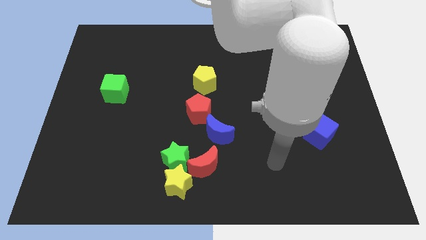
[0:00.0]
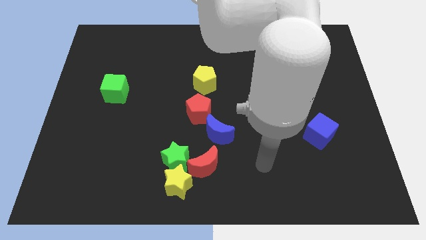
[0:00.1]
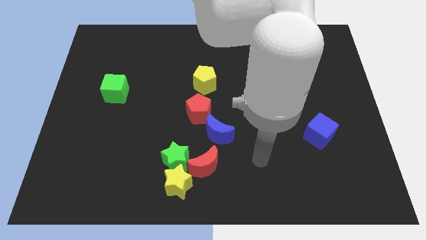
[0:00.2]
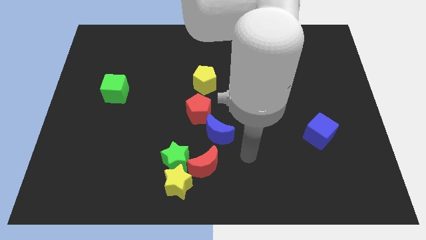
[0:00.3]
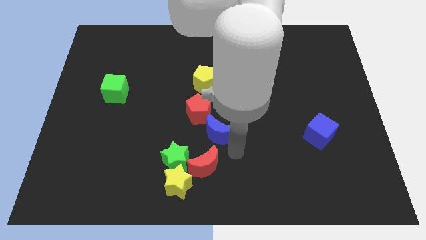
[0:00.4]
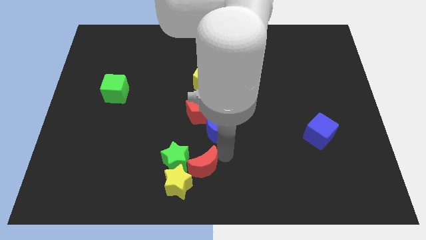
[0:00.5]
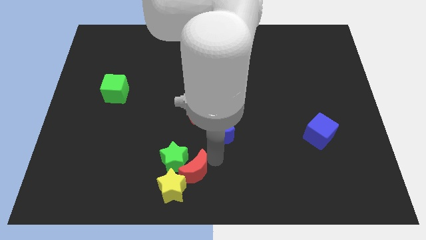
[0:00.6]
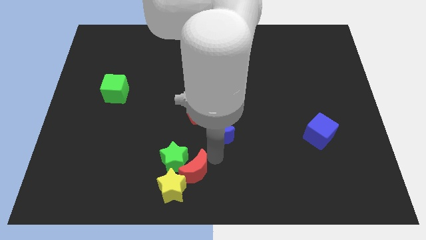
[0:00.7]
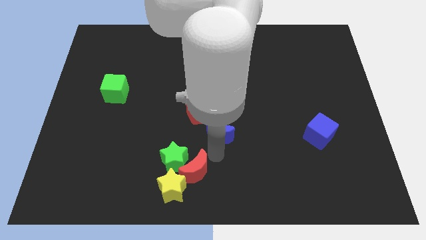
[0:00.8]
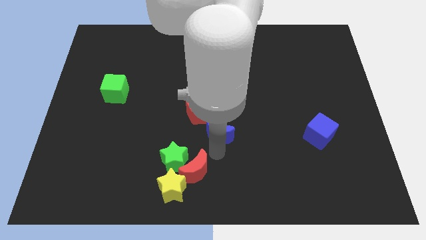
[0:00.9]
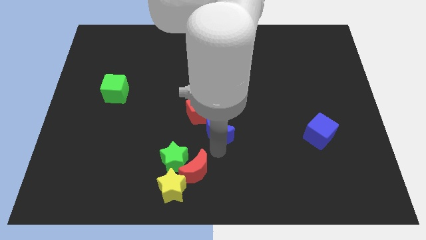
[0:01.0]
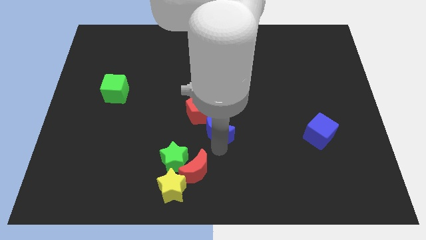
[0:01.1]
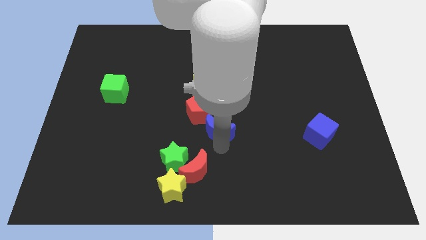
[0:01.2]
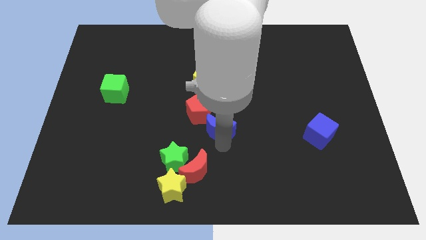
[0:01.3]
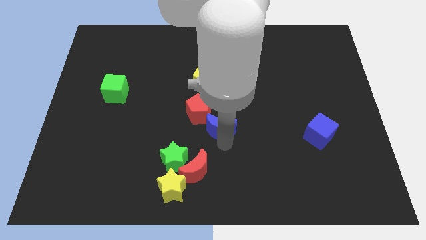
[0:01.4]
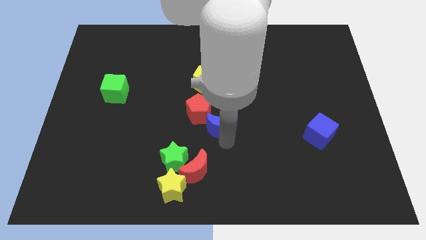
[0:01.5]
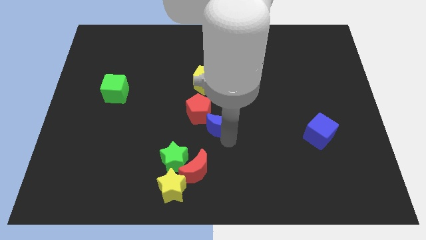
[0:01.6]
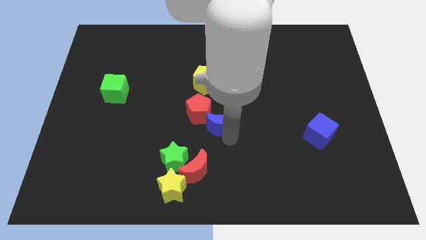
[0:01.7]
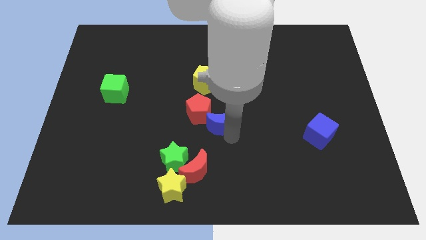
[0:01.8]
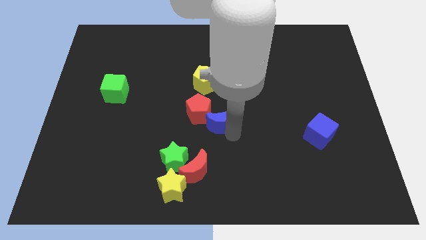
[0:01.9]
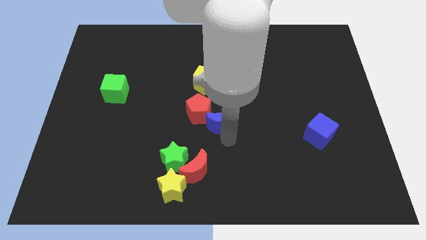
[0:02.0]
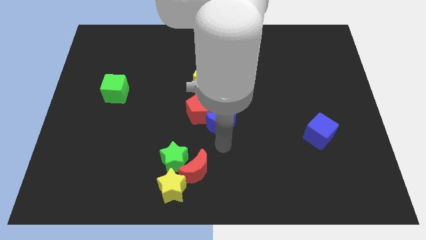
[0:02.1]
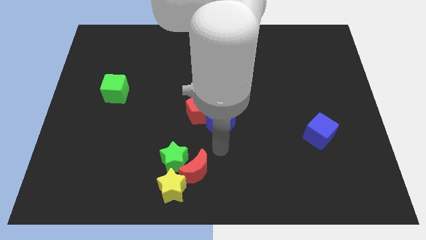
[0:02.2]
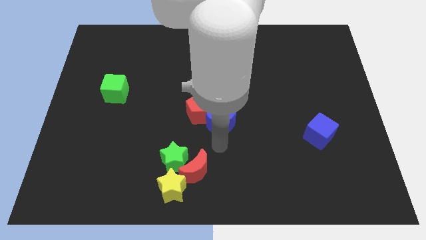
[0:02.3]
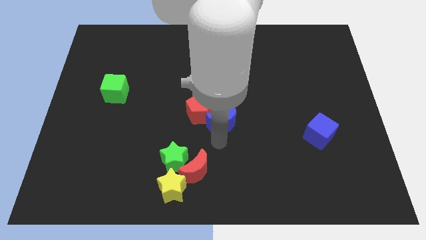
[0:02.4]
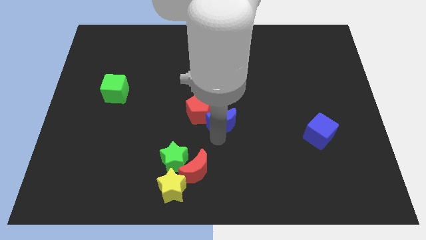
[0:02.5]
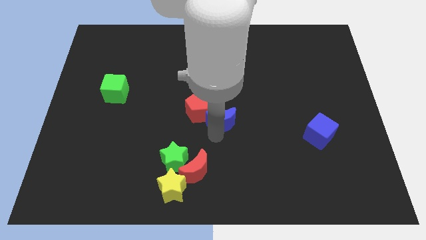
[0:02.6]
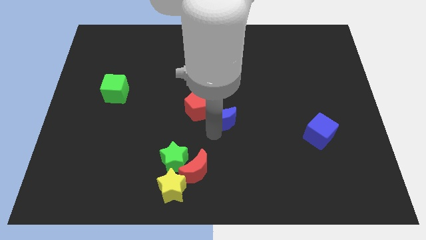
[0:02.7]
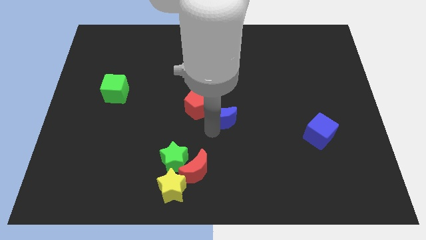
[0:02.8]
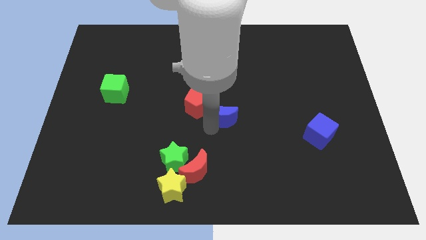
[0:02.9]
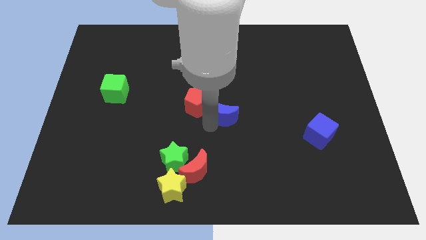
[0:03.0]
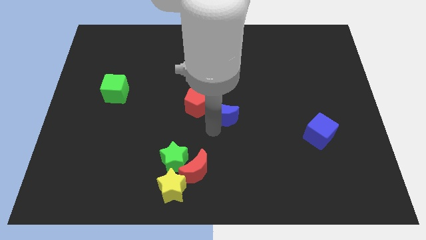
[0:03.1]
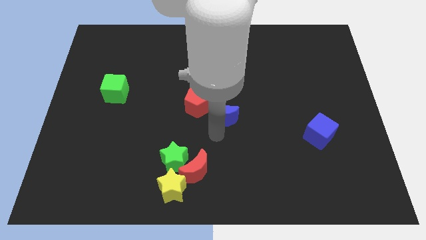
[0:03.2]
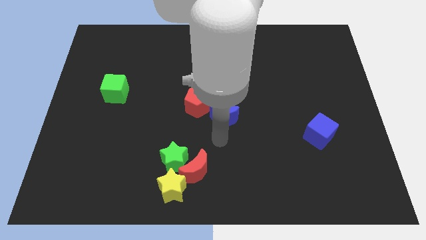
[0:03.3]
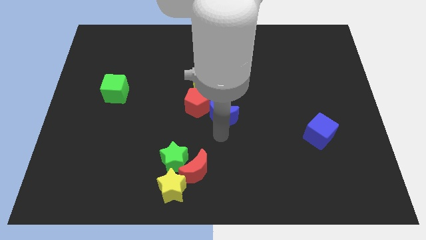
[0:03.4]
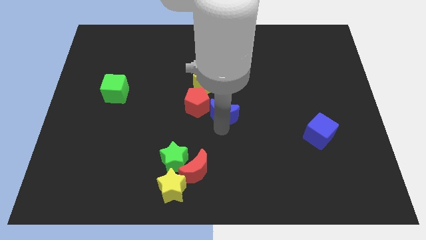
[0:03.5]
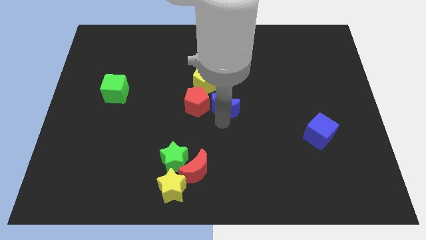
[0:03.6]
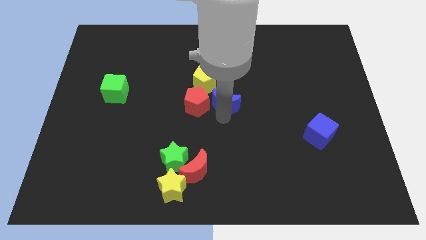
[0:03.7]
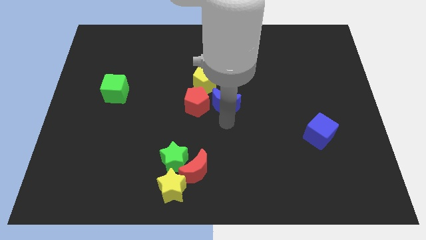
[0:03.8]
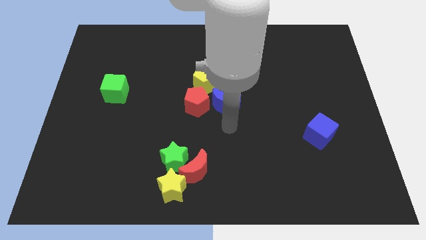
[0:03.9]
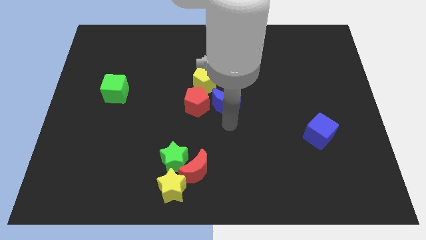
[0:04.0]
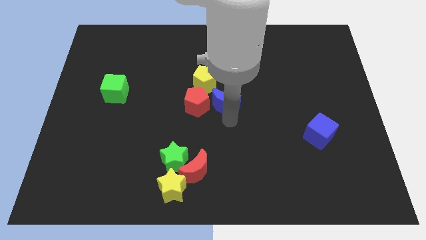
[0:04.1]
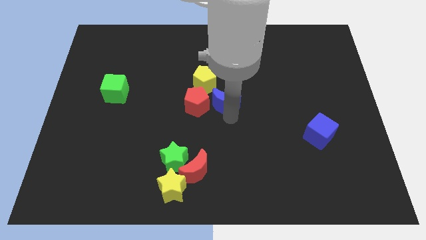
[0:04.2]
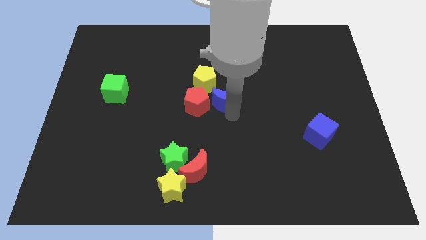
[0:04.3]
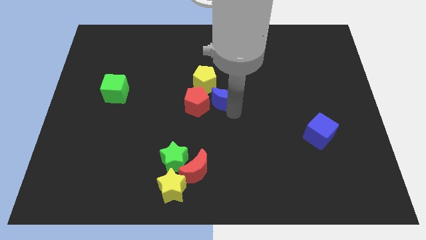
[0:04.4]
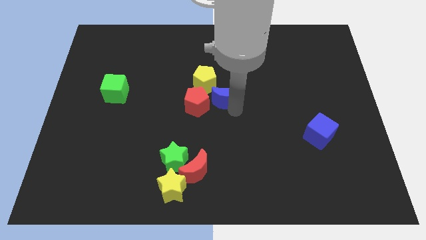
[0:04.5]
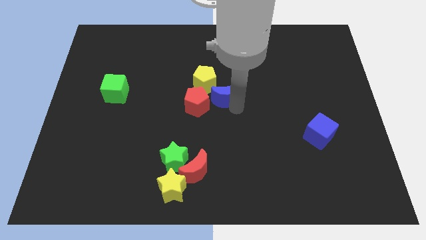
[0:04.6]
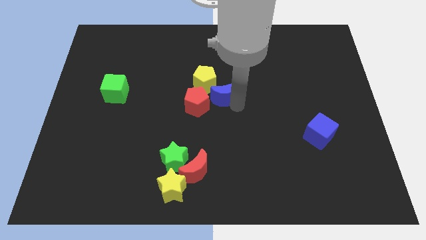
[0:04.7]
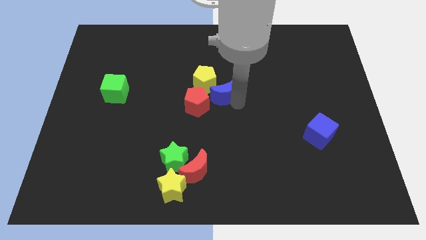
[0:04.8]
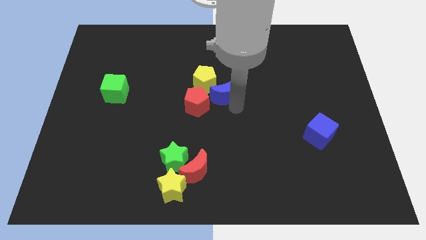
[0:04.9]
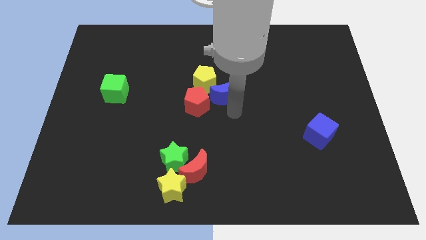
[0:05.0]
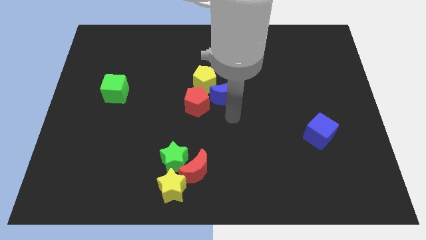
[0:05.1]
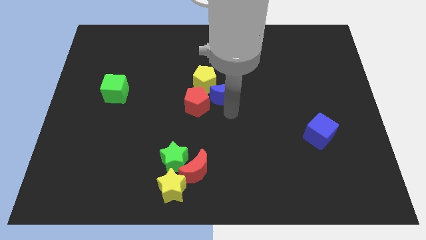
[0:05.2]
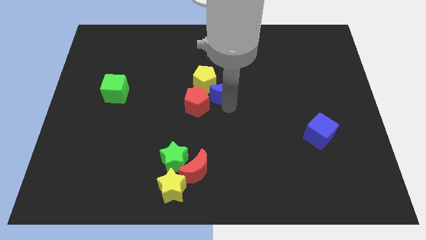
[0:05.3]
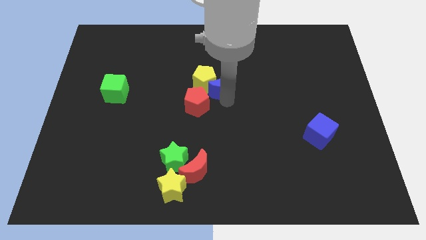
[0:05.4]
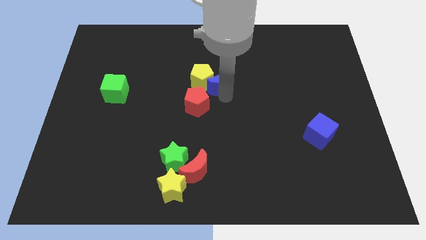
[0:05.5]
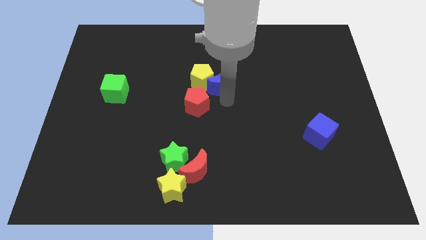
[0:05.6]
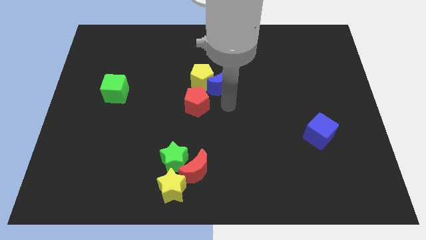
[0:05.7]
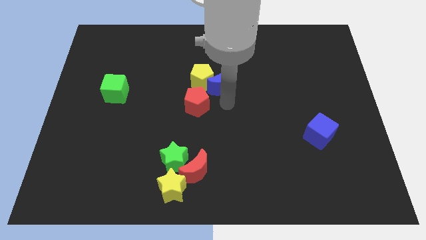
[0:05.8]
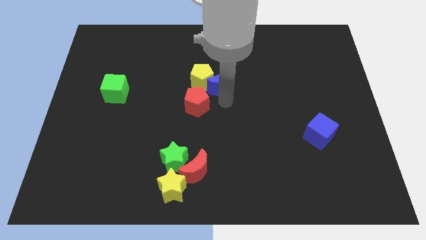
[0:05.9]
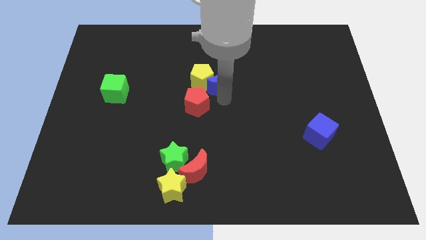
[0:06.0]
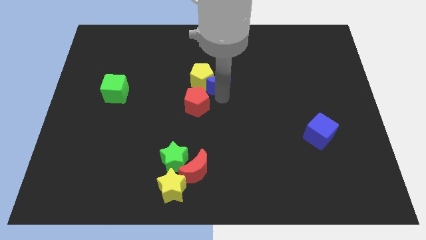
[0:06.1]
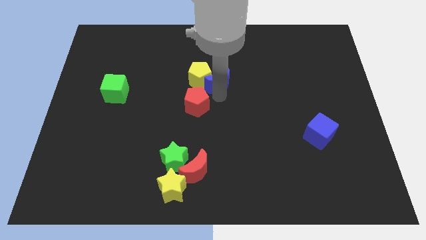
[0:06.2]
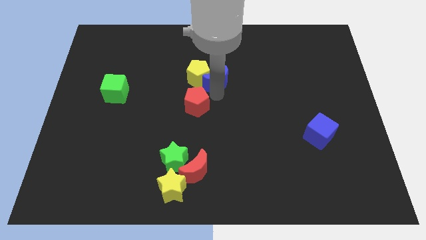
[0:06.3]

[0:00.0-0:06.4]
slide the blue moon to the top of the red pentagon

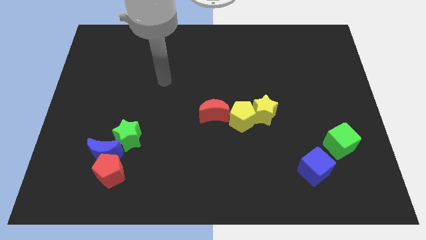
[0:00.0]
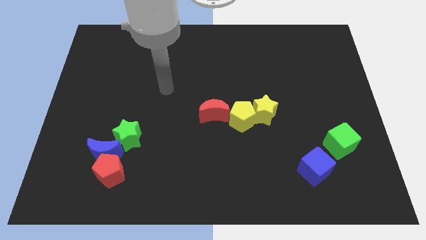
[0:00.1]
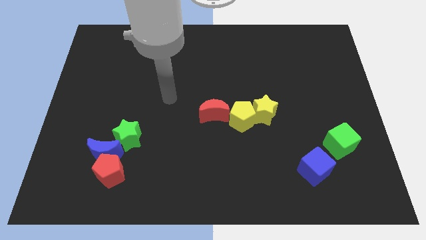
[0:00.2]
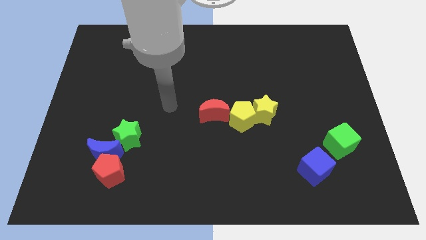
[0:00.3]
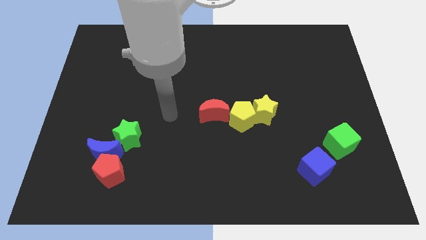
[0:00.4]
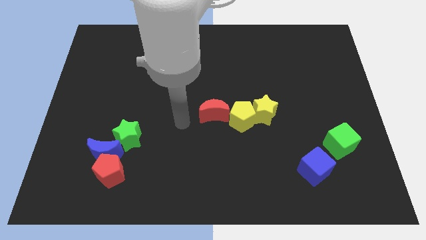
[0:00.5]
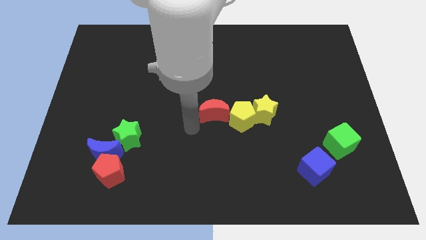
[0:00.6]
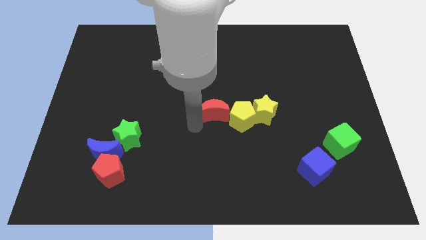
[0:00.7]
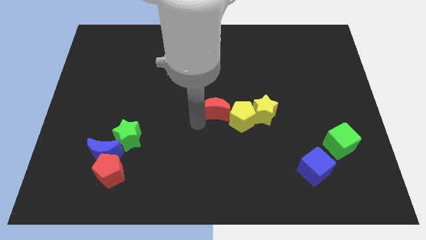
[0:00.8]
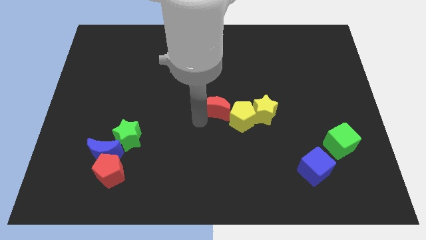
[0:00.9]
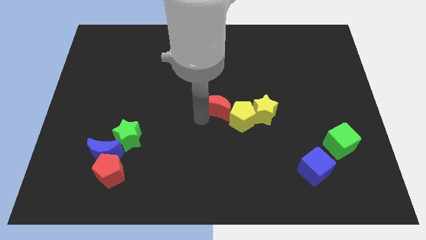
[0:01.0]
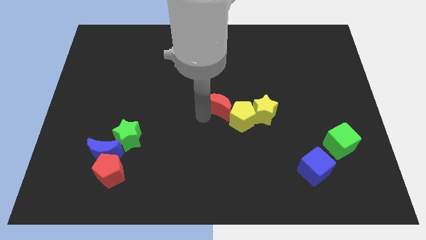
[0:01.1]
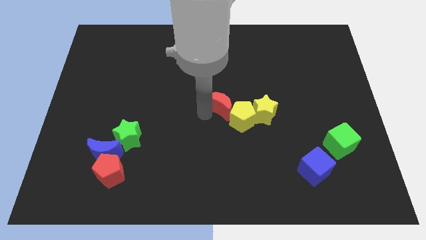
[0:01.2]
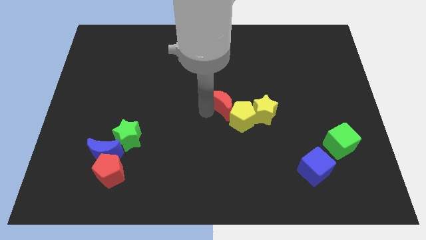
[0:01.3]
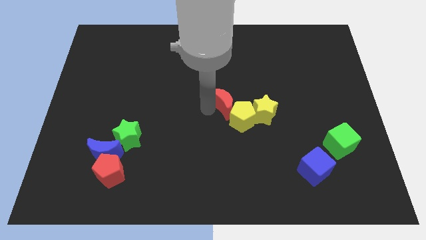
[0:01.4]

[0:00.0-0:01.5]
put the red moon diagonally up and to the left of the yellow star
